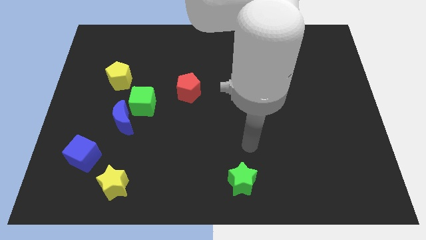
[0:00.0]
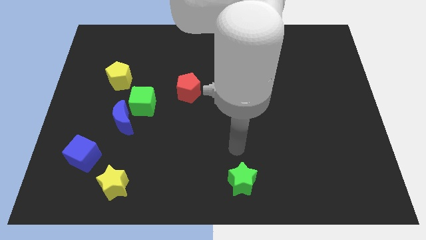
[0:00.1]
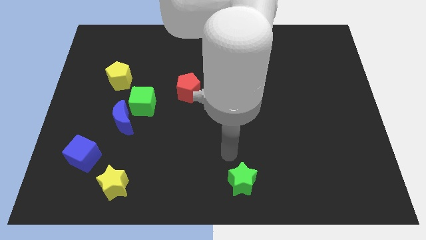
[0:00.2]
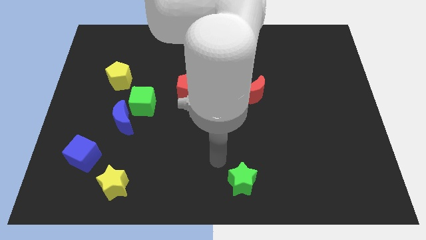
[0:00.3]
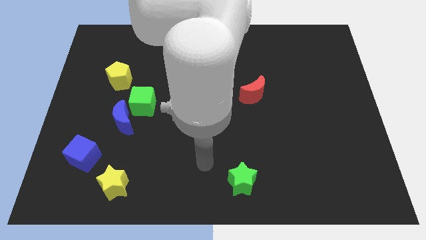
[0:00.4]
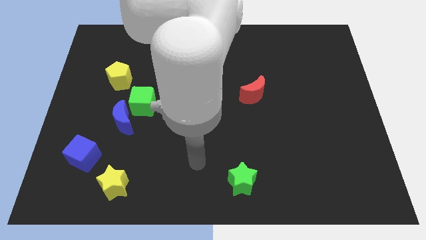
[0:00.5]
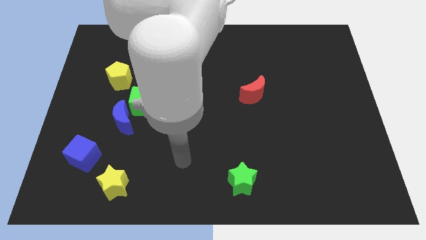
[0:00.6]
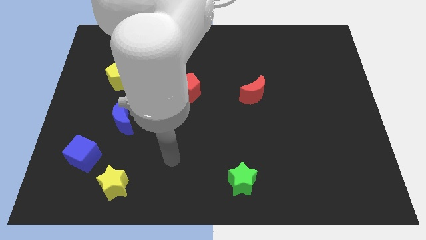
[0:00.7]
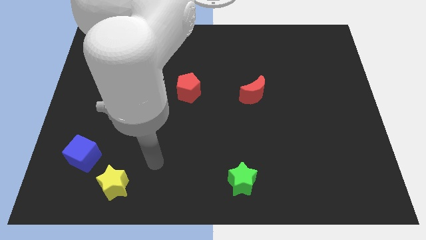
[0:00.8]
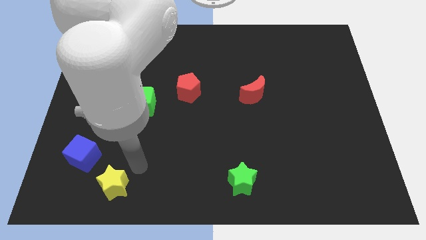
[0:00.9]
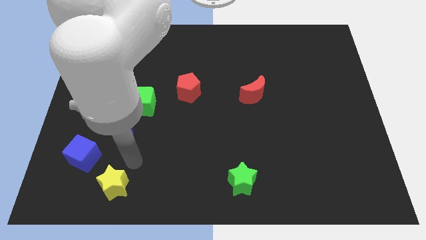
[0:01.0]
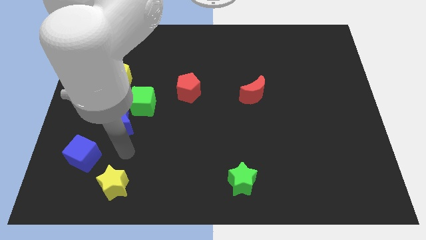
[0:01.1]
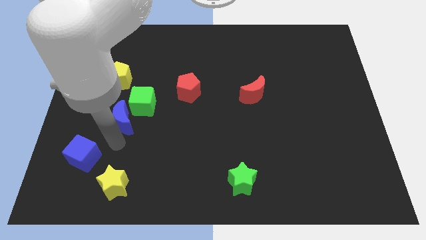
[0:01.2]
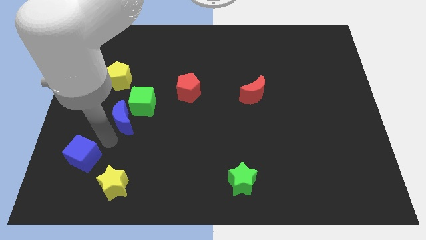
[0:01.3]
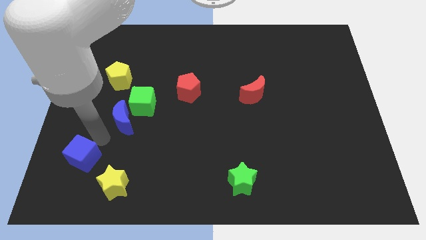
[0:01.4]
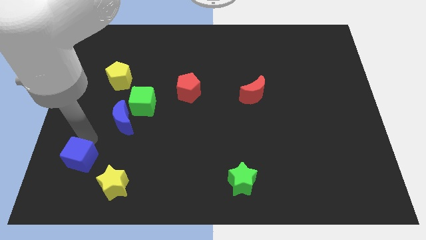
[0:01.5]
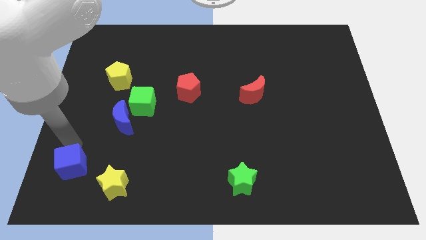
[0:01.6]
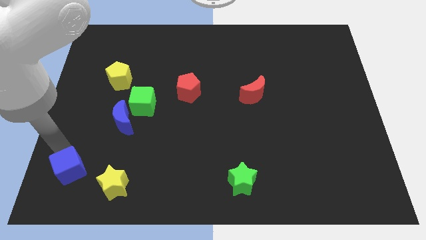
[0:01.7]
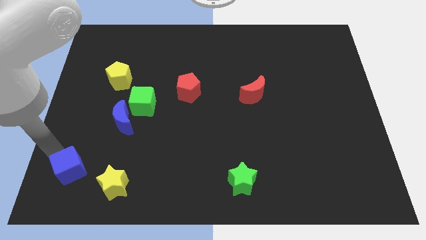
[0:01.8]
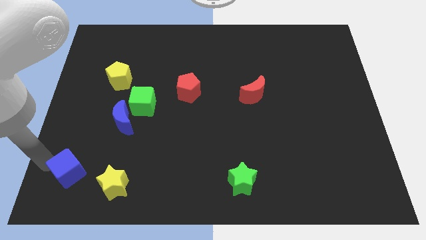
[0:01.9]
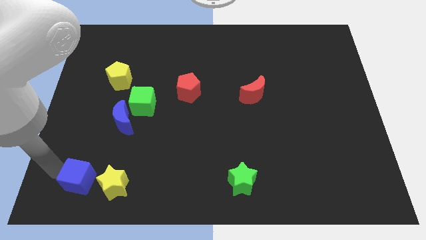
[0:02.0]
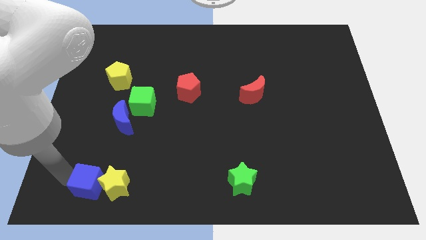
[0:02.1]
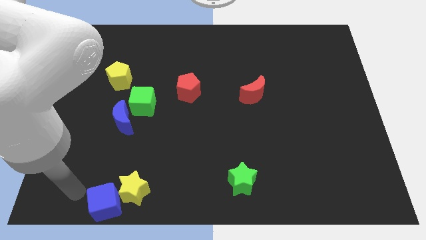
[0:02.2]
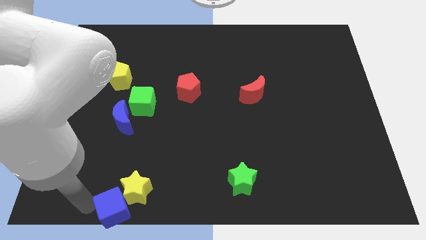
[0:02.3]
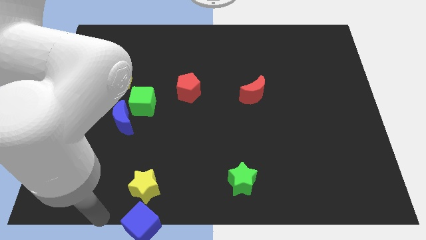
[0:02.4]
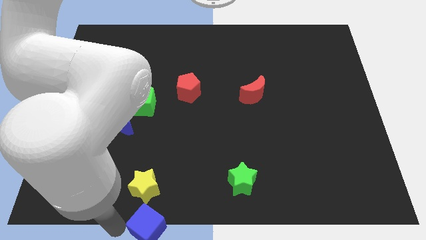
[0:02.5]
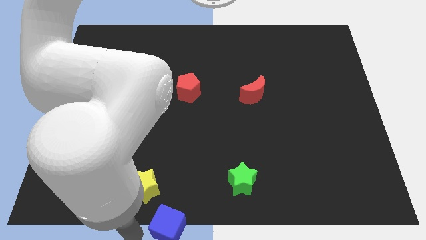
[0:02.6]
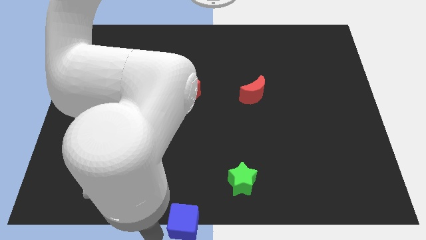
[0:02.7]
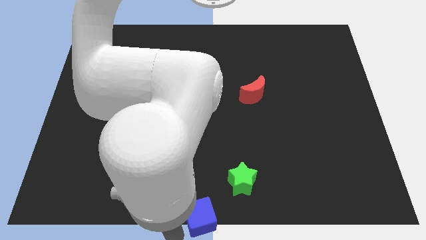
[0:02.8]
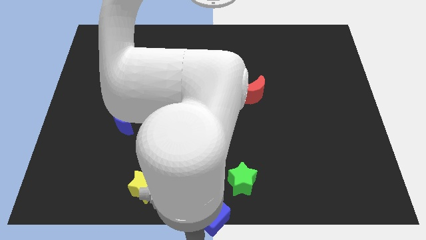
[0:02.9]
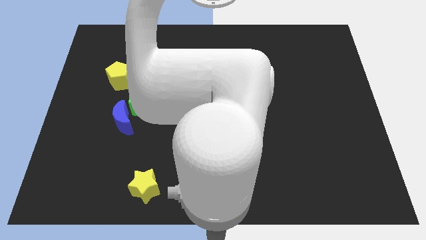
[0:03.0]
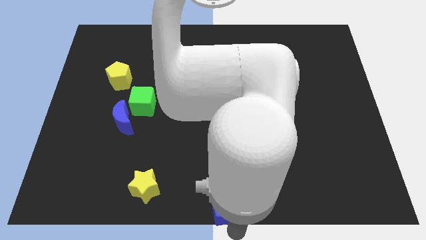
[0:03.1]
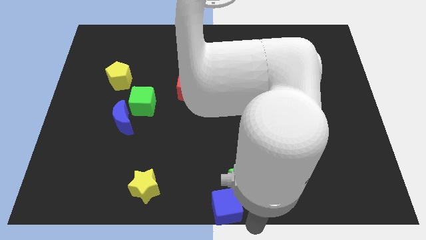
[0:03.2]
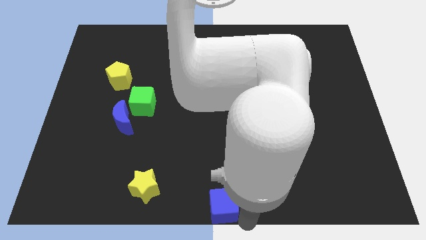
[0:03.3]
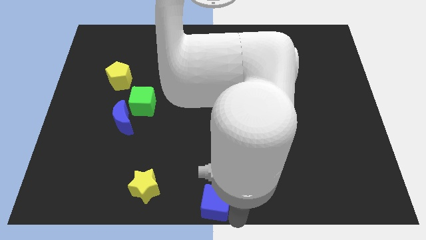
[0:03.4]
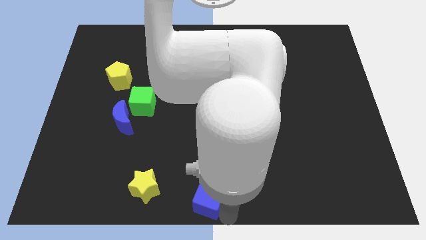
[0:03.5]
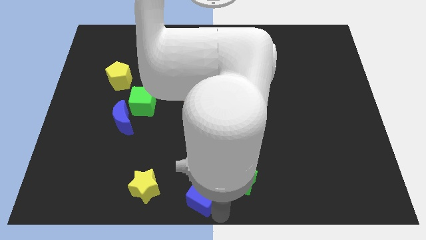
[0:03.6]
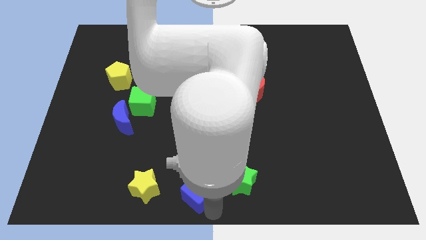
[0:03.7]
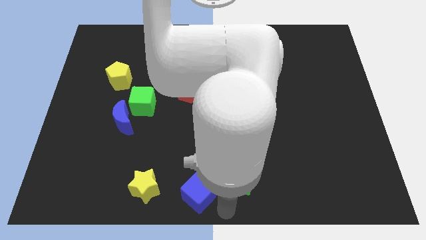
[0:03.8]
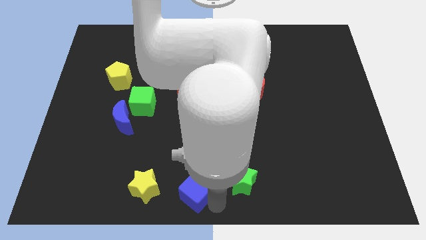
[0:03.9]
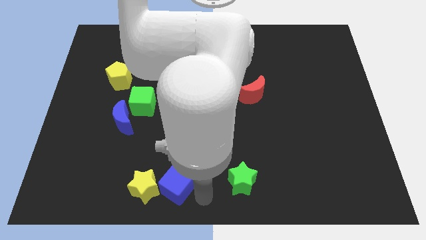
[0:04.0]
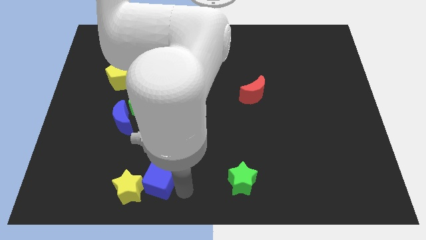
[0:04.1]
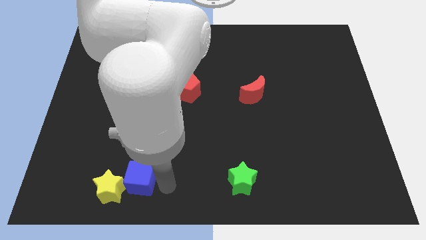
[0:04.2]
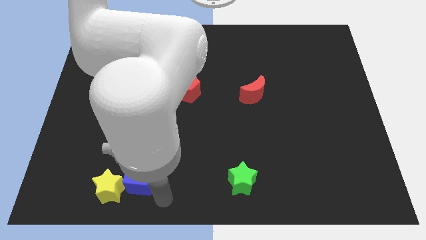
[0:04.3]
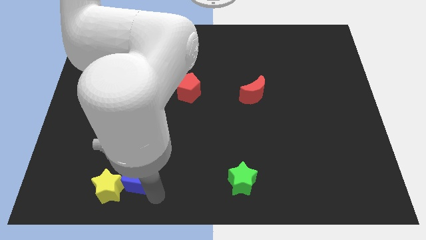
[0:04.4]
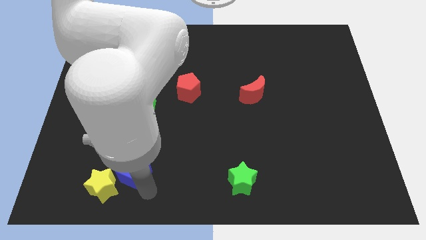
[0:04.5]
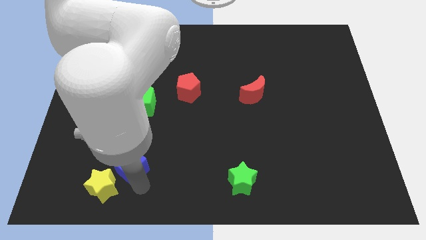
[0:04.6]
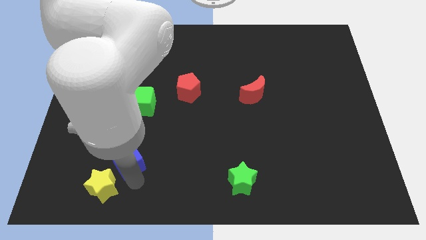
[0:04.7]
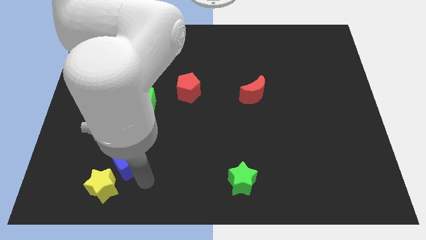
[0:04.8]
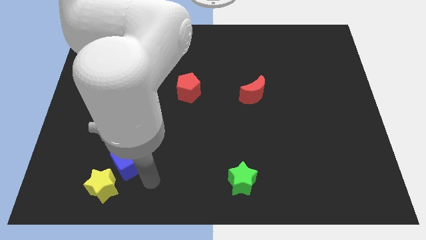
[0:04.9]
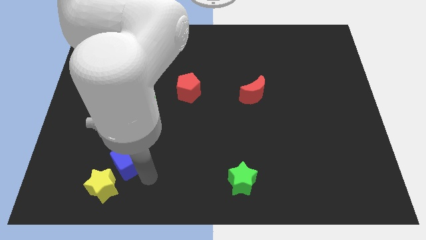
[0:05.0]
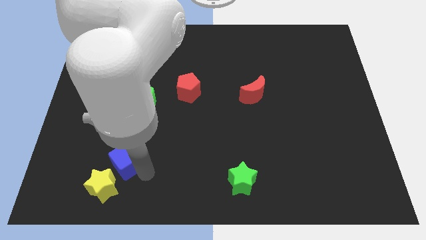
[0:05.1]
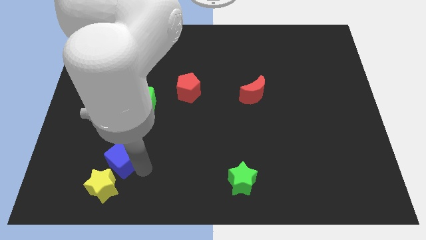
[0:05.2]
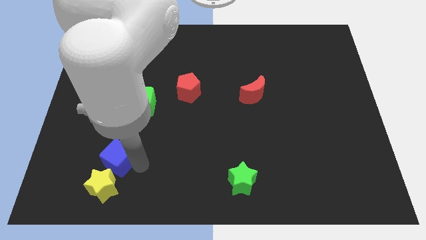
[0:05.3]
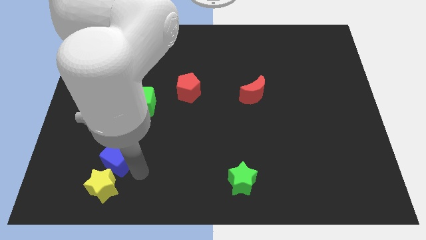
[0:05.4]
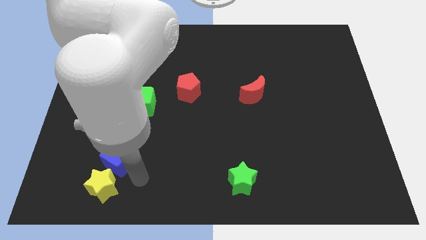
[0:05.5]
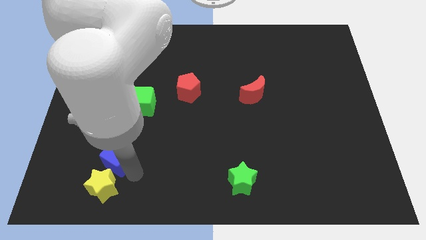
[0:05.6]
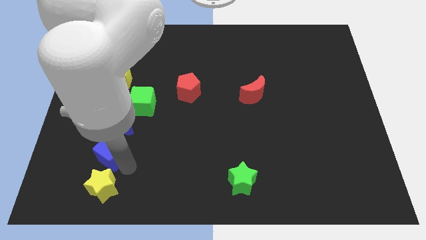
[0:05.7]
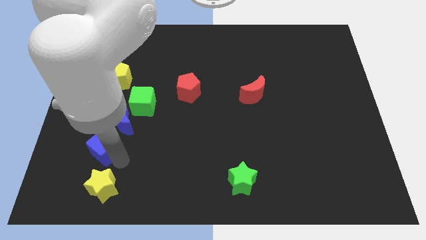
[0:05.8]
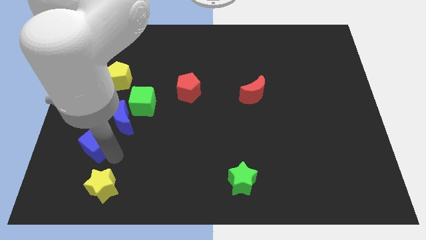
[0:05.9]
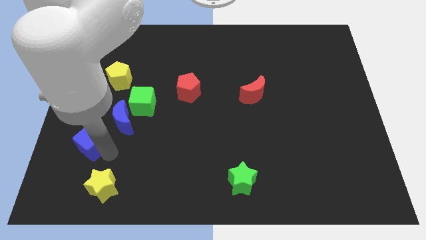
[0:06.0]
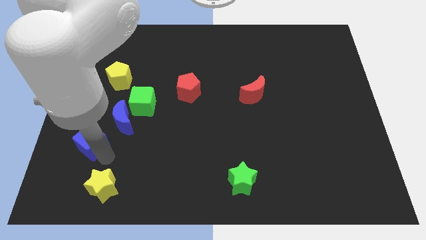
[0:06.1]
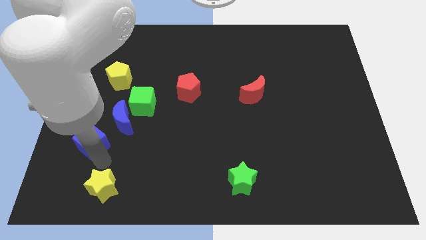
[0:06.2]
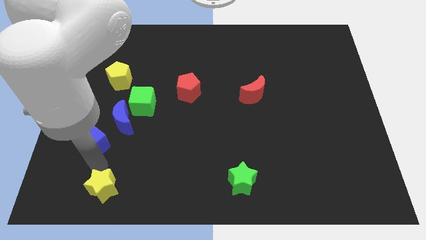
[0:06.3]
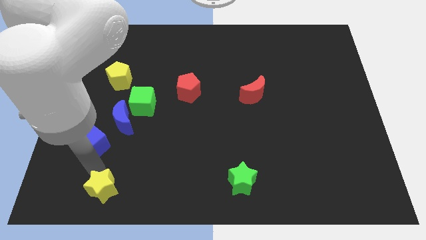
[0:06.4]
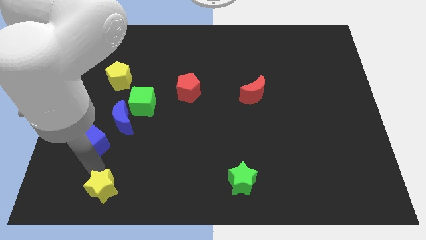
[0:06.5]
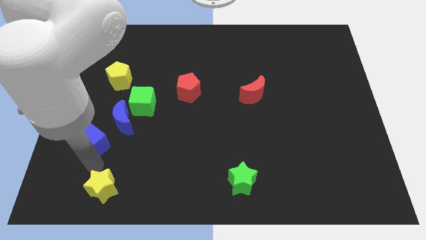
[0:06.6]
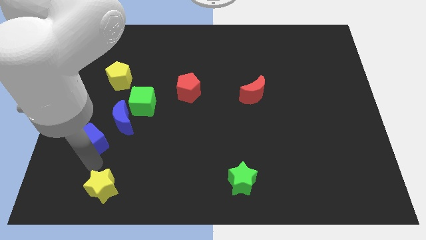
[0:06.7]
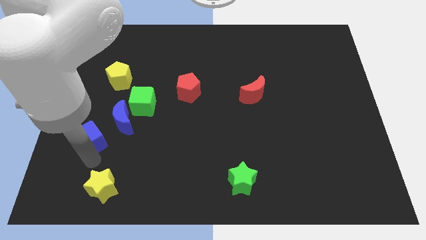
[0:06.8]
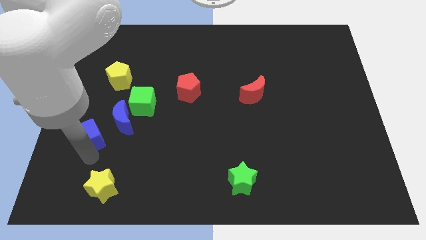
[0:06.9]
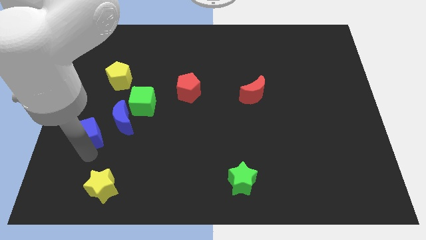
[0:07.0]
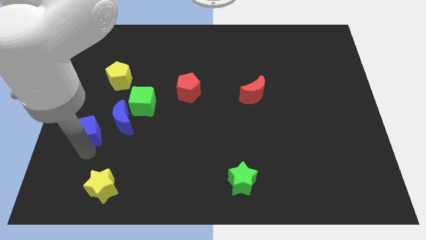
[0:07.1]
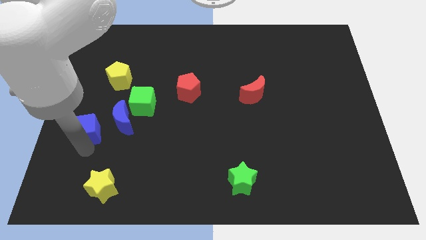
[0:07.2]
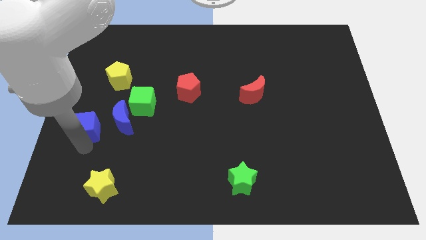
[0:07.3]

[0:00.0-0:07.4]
slide the blue cube upwards a little

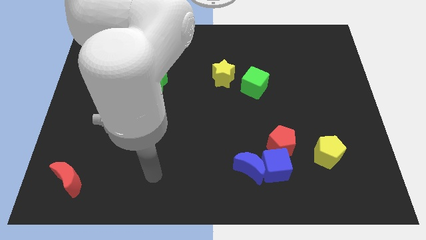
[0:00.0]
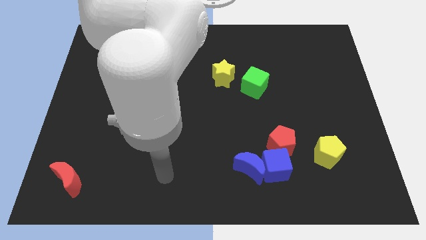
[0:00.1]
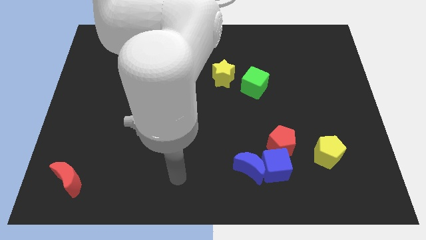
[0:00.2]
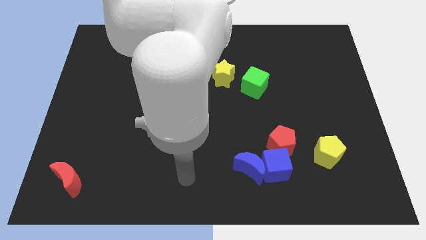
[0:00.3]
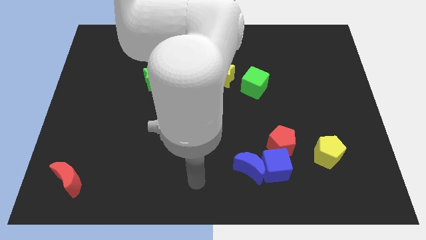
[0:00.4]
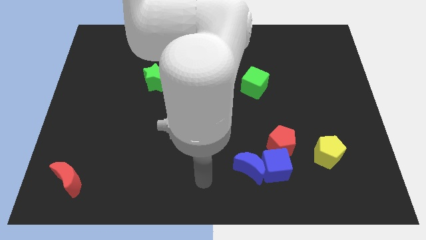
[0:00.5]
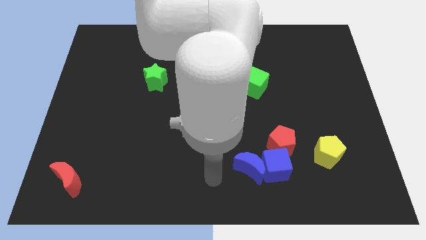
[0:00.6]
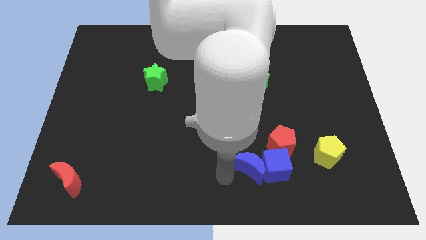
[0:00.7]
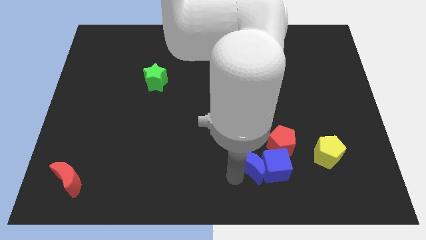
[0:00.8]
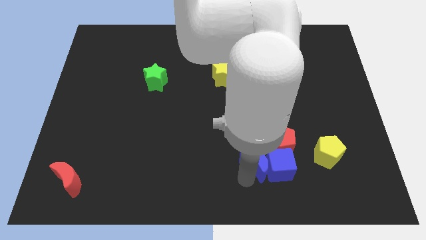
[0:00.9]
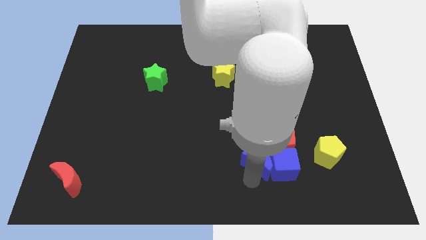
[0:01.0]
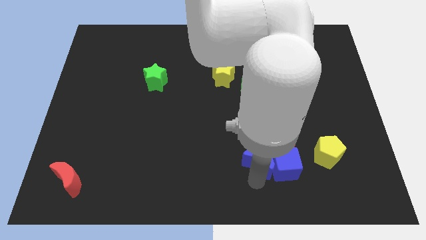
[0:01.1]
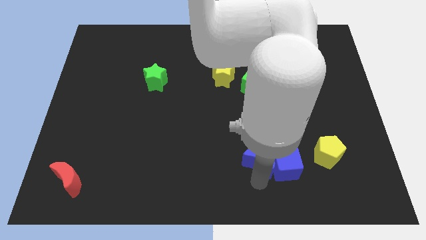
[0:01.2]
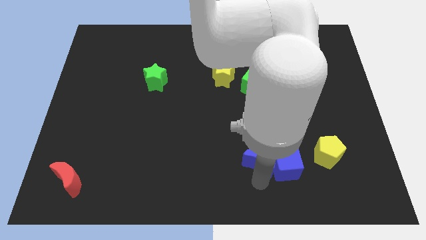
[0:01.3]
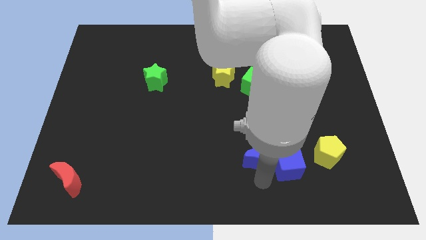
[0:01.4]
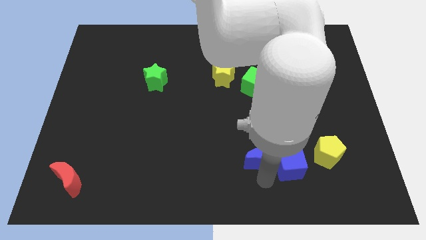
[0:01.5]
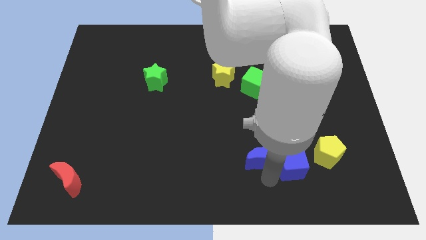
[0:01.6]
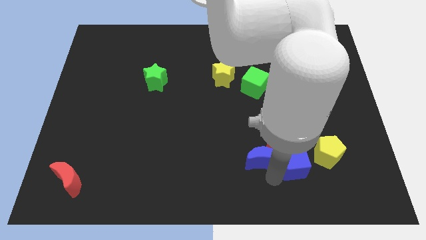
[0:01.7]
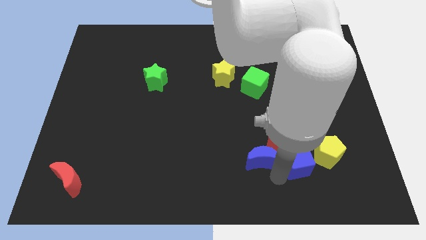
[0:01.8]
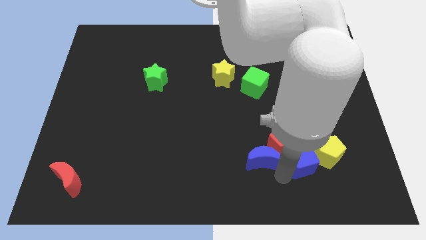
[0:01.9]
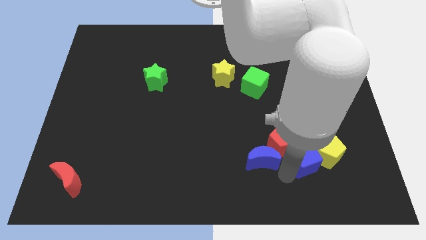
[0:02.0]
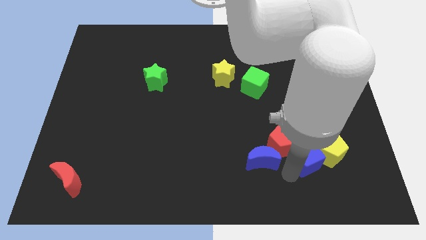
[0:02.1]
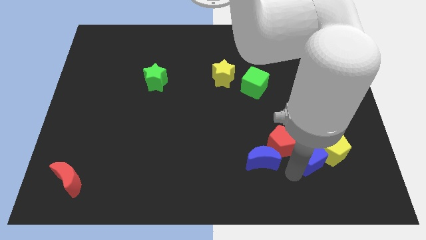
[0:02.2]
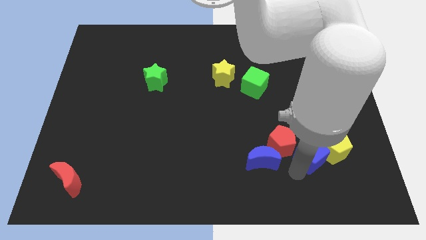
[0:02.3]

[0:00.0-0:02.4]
push the blue cube a little up and right
